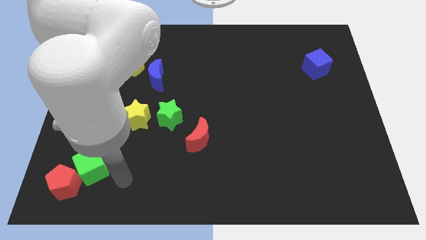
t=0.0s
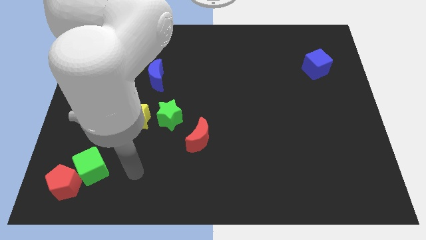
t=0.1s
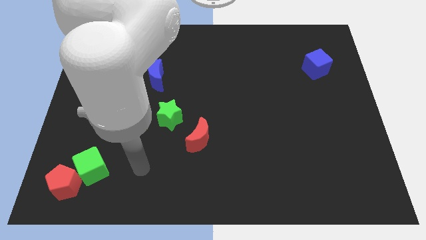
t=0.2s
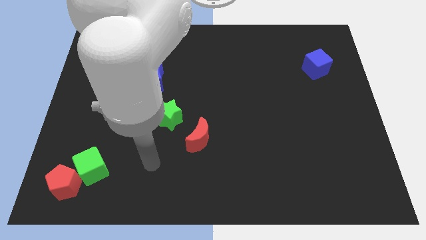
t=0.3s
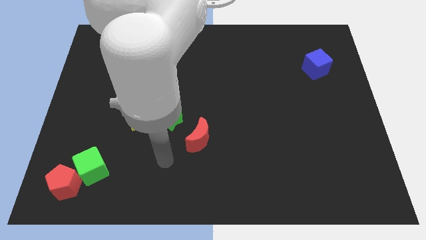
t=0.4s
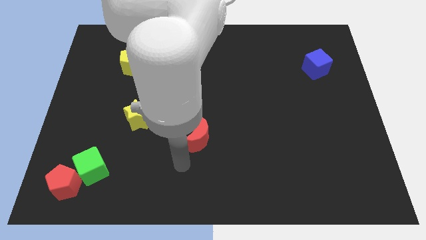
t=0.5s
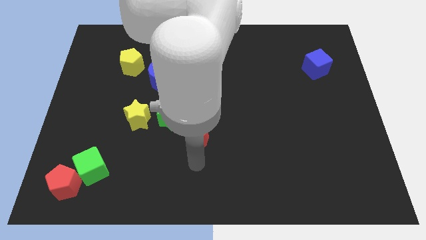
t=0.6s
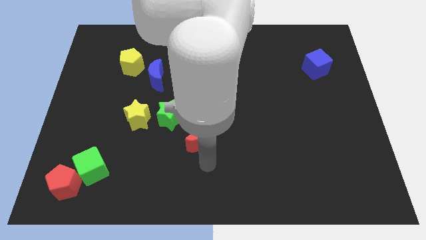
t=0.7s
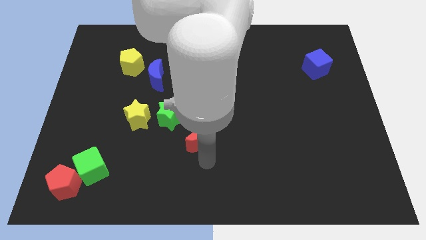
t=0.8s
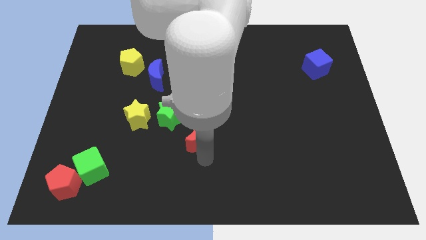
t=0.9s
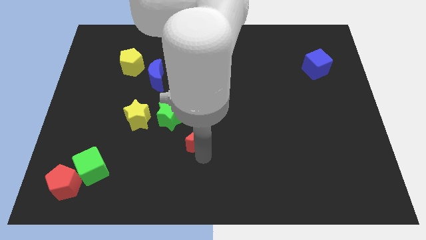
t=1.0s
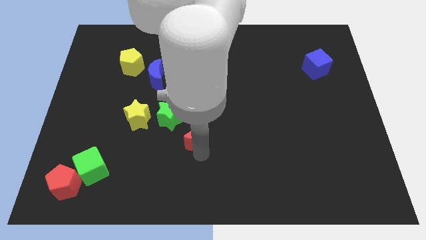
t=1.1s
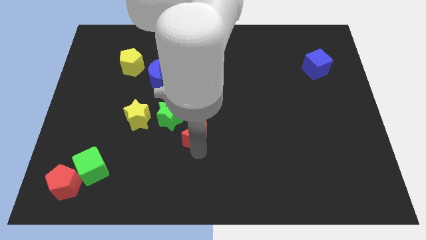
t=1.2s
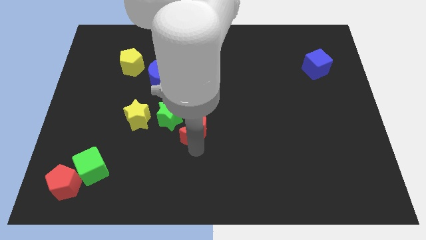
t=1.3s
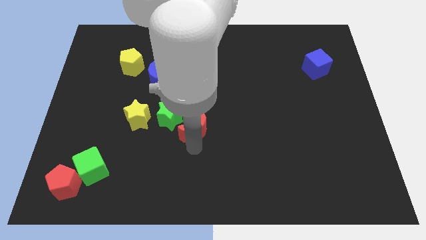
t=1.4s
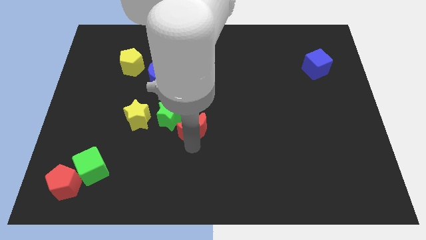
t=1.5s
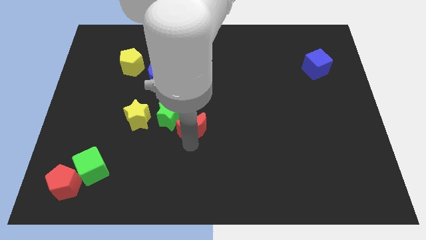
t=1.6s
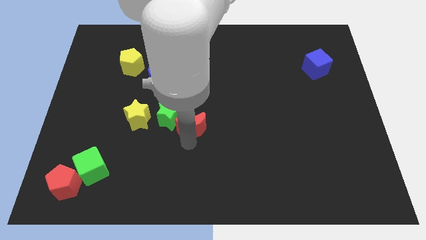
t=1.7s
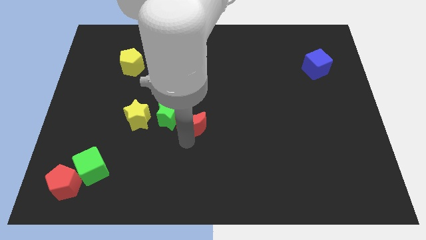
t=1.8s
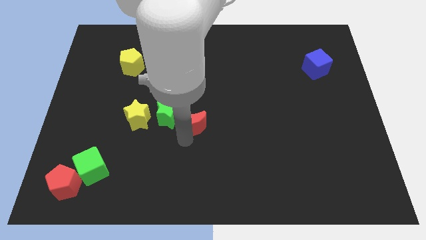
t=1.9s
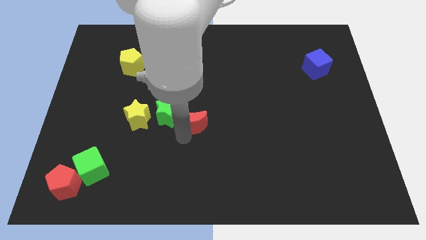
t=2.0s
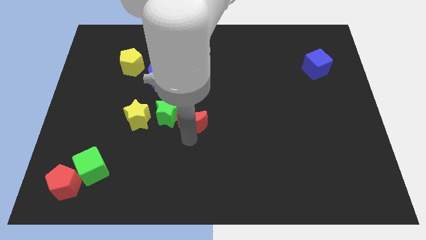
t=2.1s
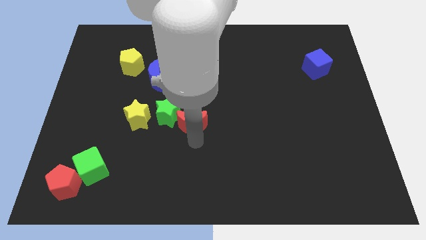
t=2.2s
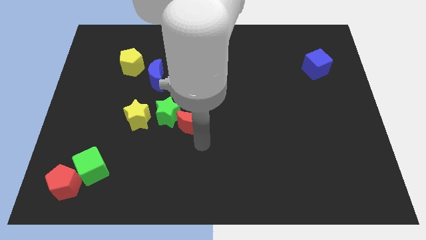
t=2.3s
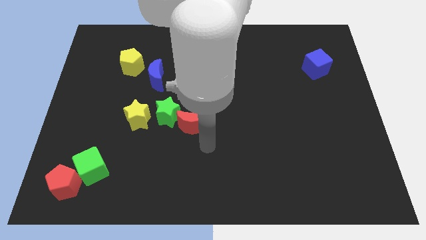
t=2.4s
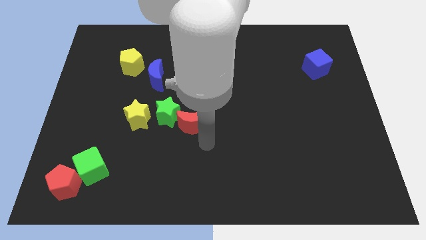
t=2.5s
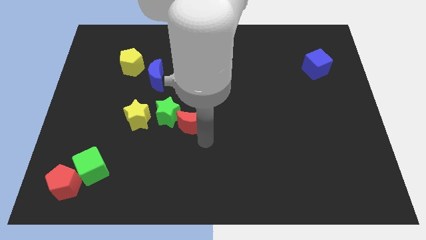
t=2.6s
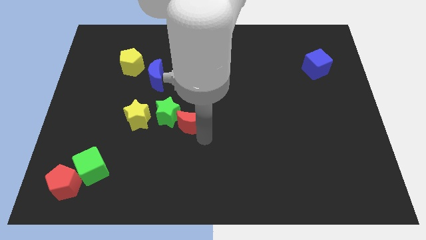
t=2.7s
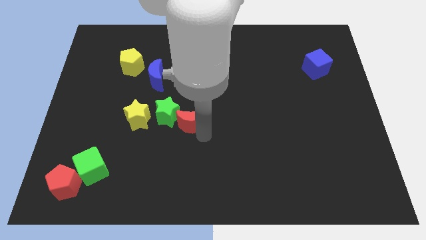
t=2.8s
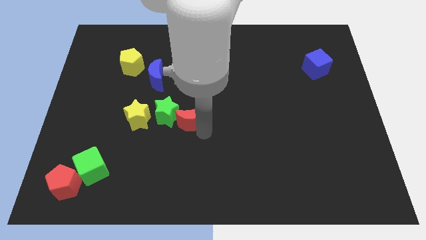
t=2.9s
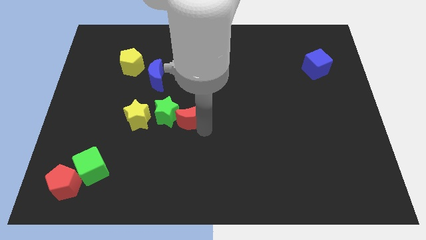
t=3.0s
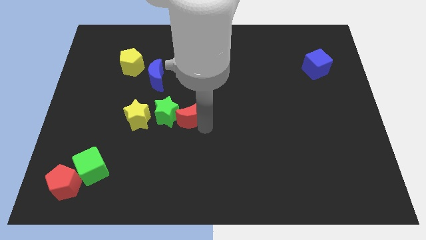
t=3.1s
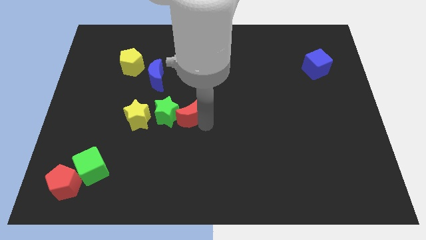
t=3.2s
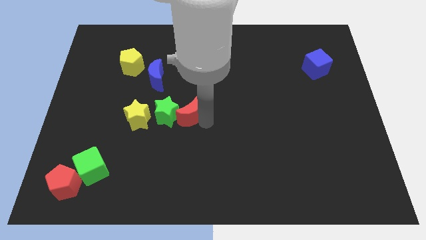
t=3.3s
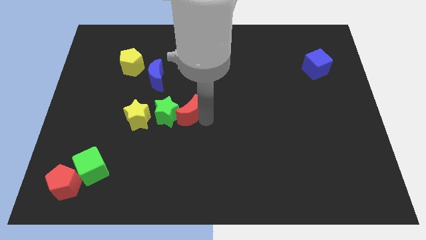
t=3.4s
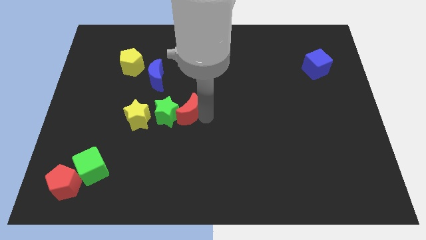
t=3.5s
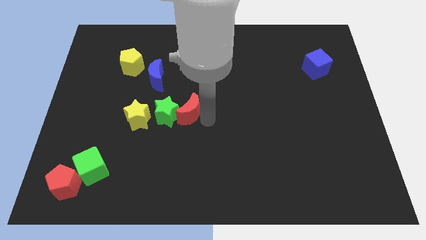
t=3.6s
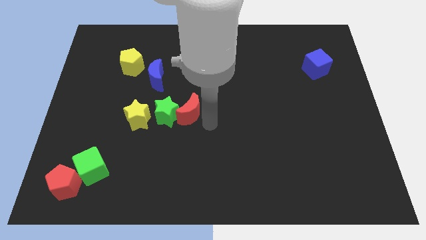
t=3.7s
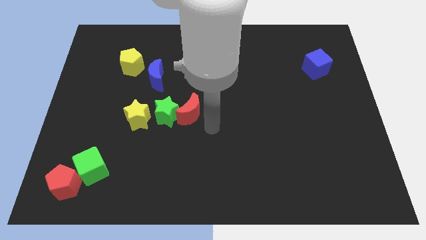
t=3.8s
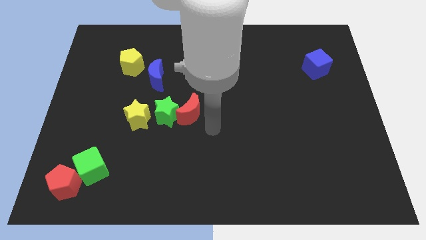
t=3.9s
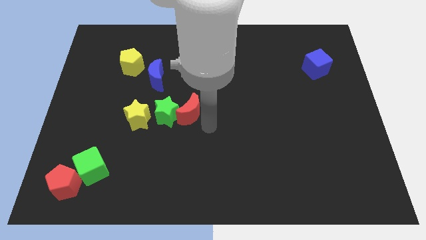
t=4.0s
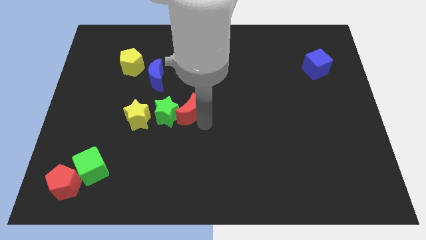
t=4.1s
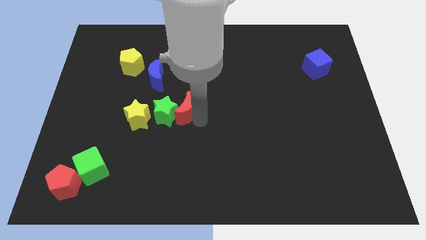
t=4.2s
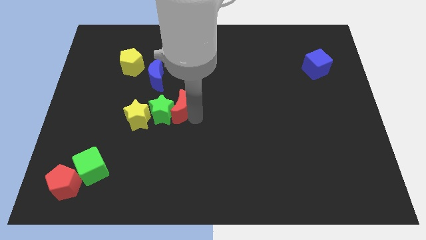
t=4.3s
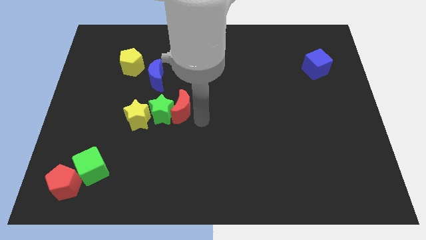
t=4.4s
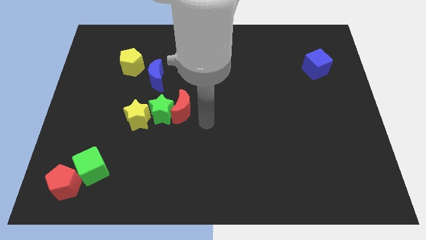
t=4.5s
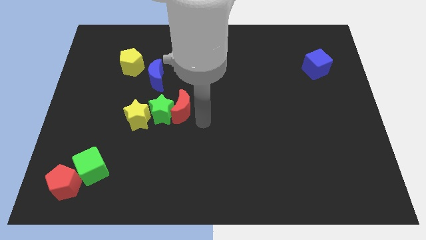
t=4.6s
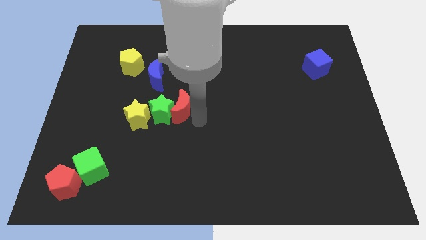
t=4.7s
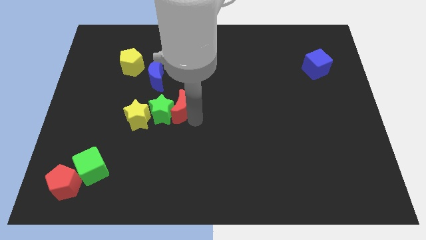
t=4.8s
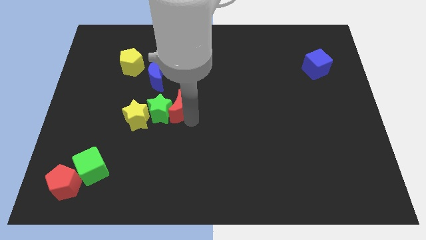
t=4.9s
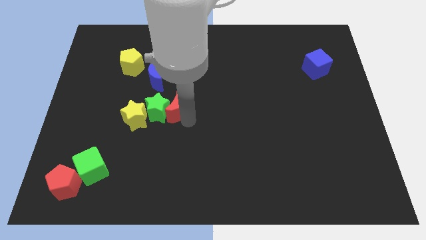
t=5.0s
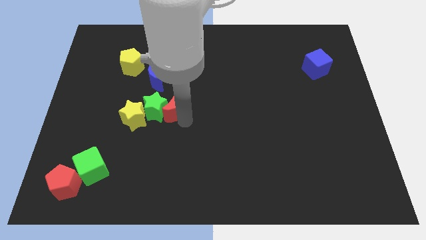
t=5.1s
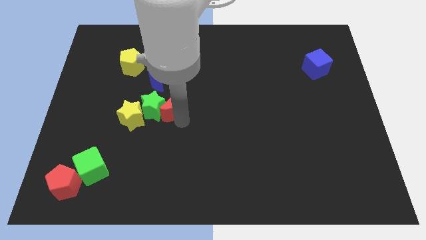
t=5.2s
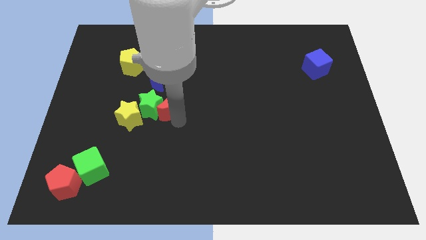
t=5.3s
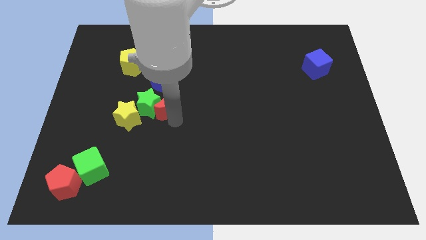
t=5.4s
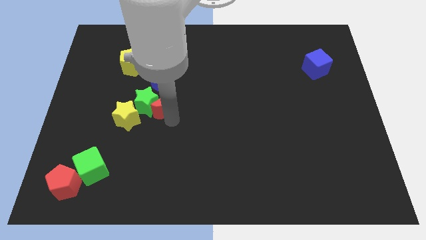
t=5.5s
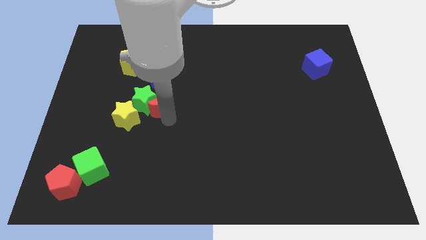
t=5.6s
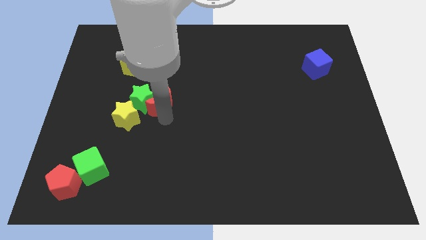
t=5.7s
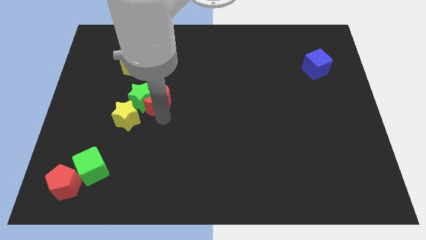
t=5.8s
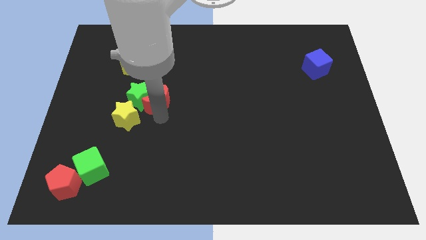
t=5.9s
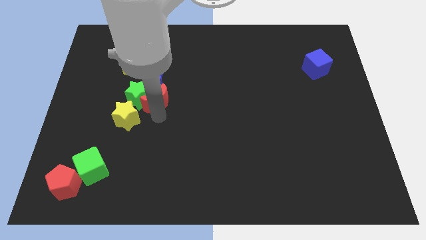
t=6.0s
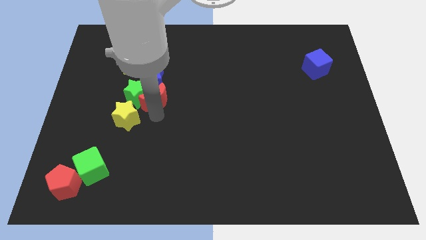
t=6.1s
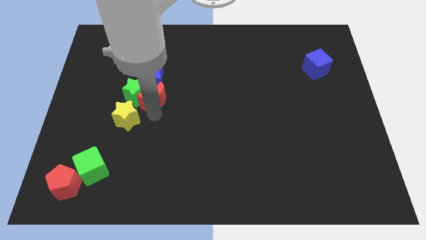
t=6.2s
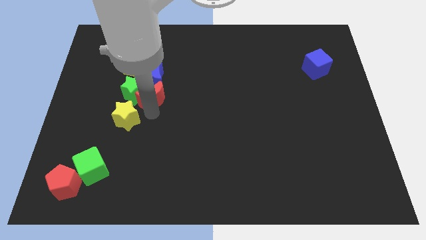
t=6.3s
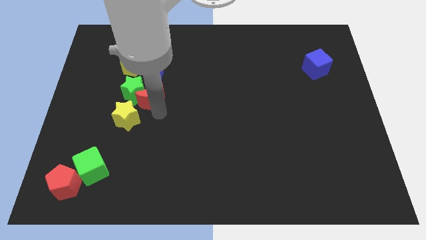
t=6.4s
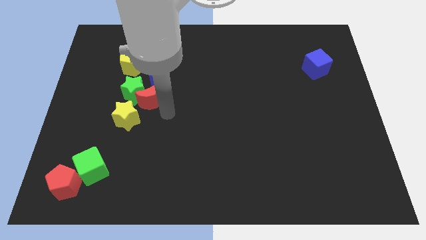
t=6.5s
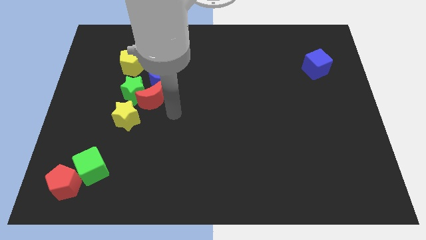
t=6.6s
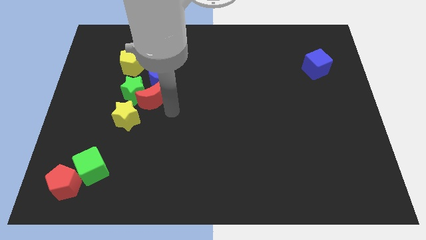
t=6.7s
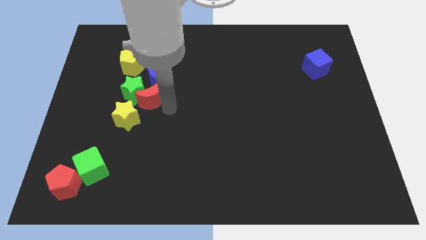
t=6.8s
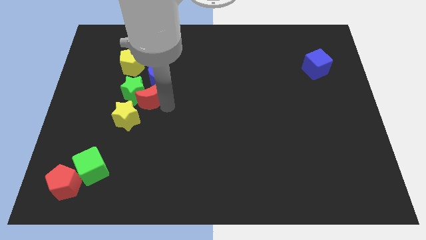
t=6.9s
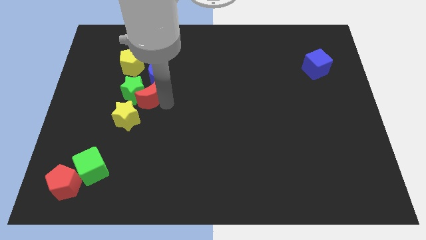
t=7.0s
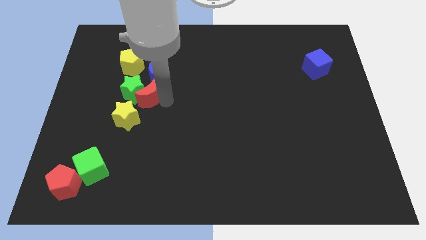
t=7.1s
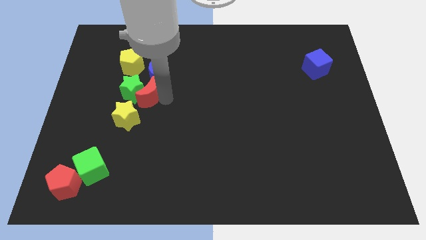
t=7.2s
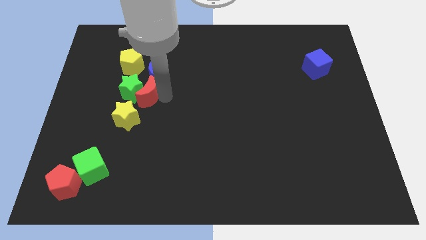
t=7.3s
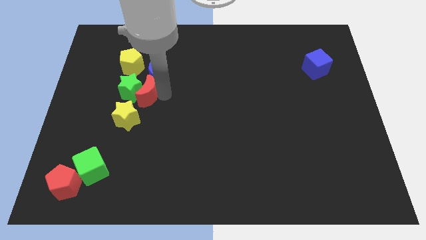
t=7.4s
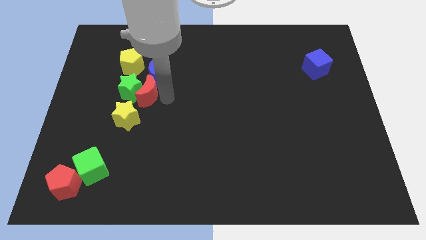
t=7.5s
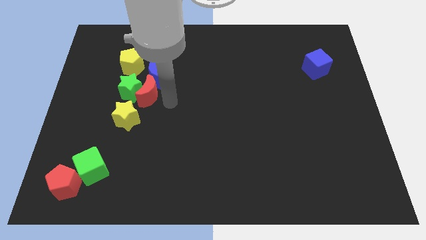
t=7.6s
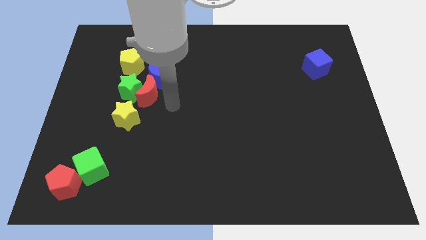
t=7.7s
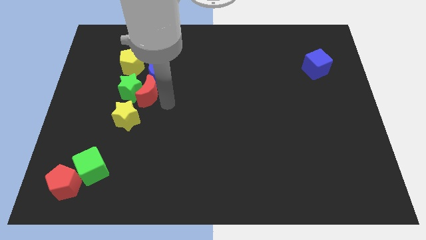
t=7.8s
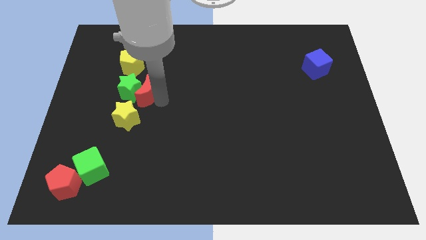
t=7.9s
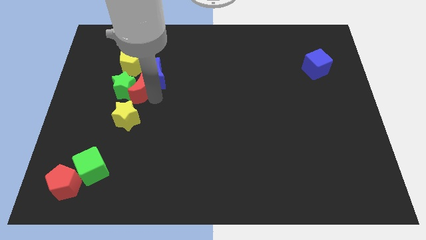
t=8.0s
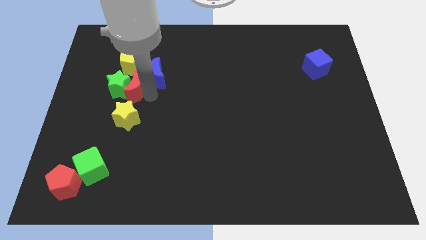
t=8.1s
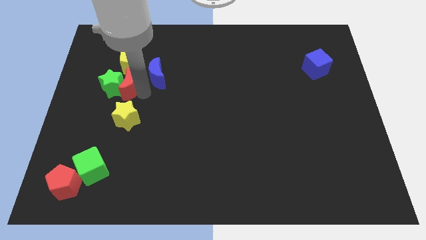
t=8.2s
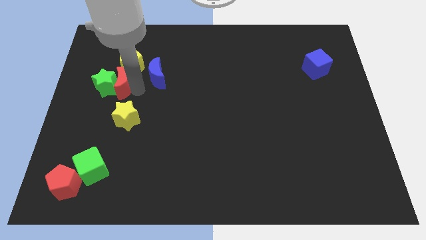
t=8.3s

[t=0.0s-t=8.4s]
put the red moon to the bottom left side of the yellow pentagon

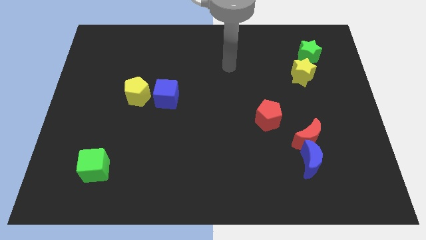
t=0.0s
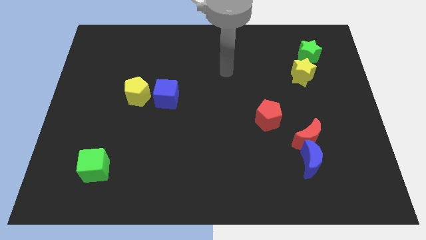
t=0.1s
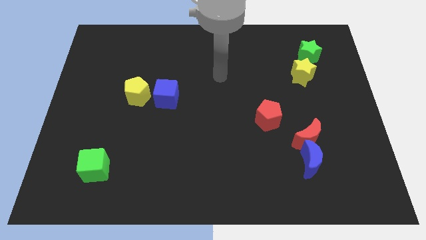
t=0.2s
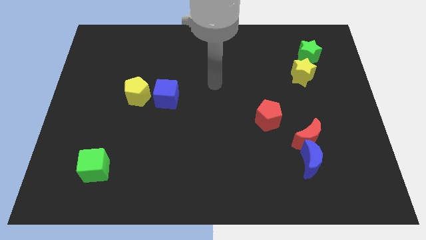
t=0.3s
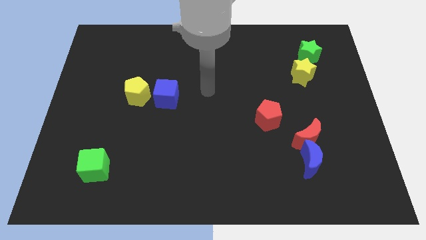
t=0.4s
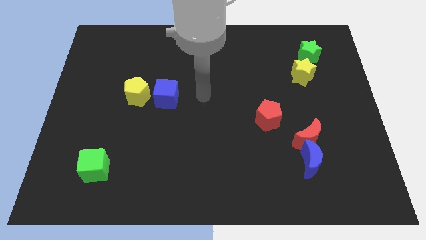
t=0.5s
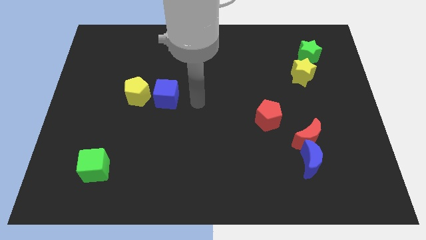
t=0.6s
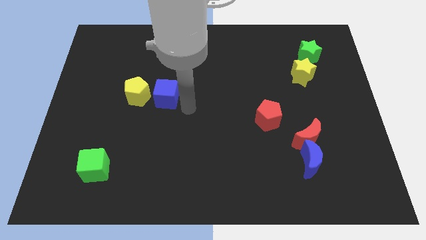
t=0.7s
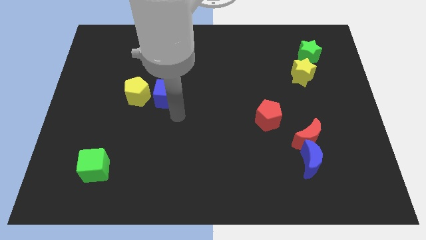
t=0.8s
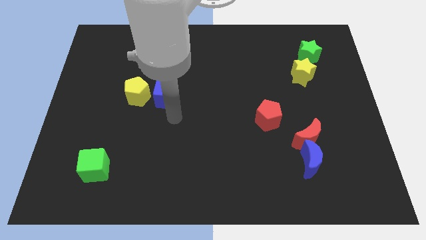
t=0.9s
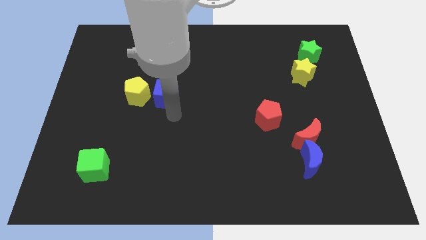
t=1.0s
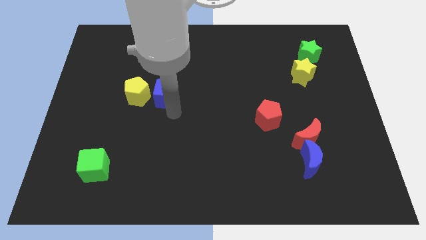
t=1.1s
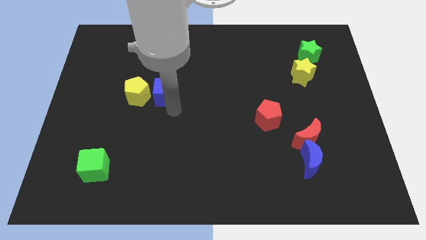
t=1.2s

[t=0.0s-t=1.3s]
slide the blue cube to the top right of the yellow pentagon
